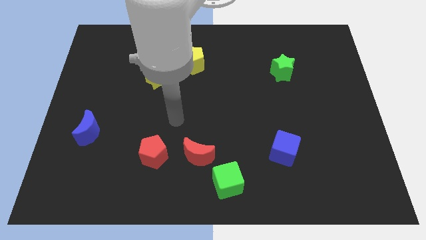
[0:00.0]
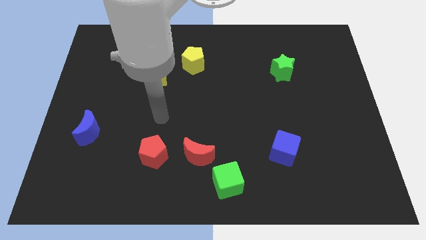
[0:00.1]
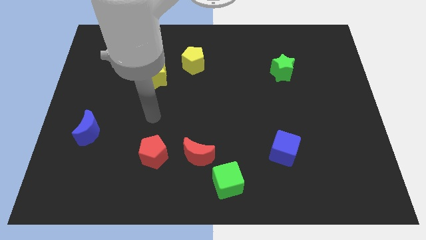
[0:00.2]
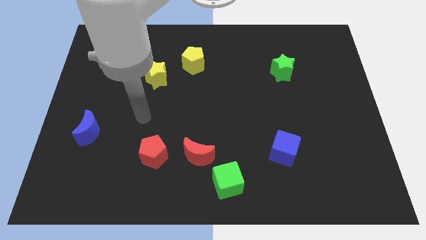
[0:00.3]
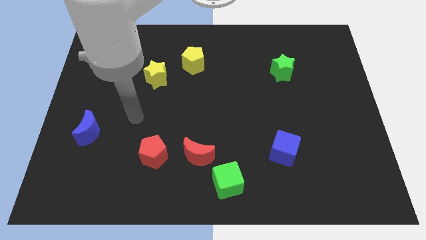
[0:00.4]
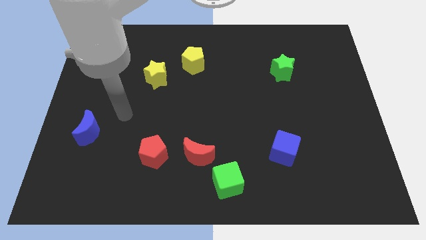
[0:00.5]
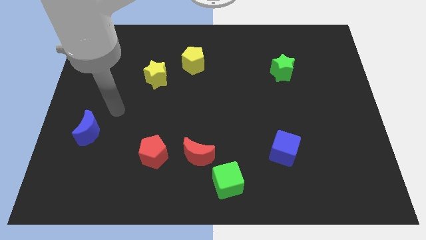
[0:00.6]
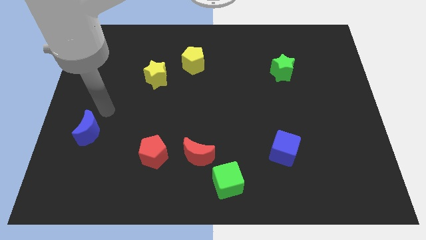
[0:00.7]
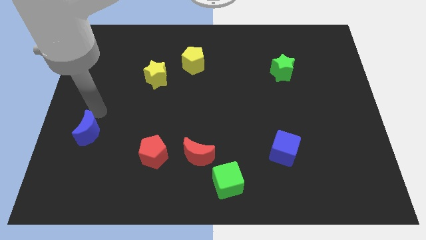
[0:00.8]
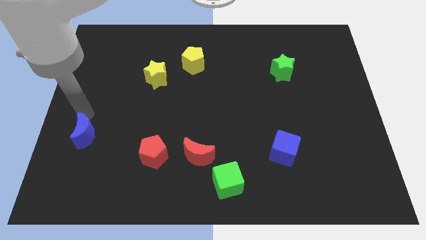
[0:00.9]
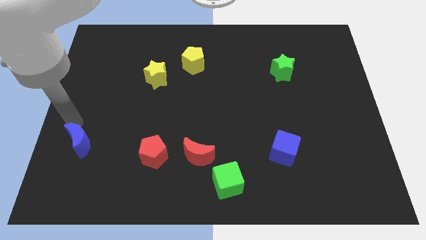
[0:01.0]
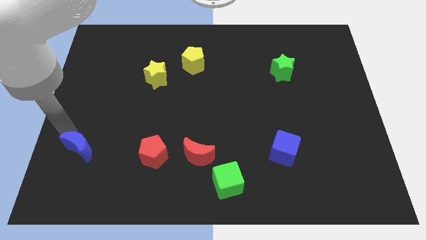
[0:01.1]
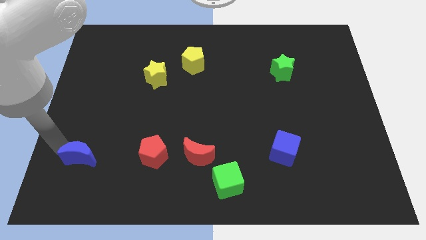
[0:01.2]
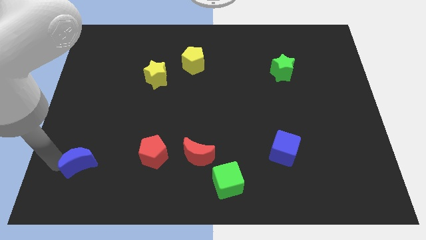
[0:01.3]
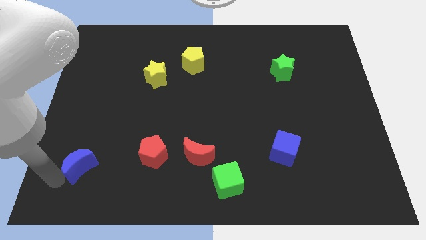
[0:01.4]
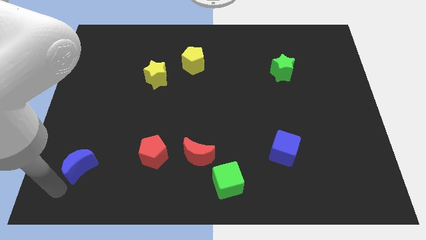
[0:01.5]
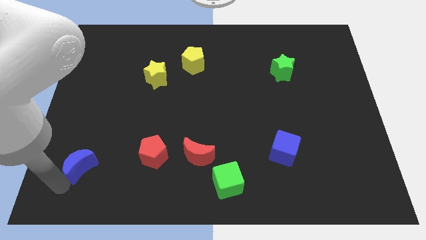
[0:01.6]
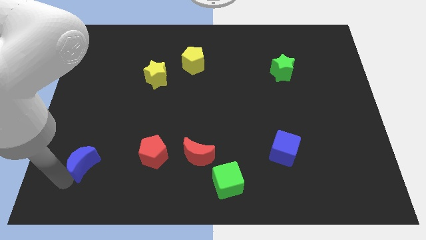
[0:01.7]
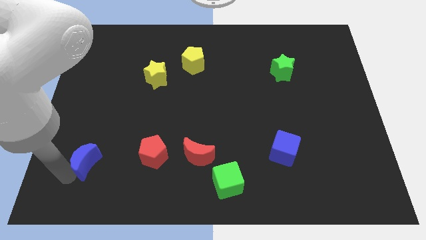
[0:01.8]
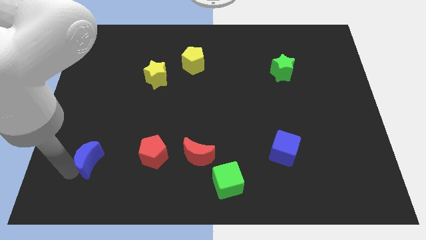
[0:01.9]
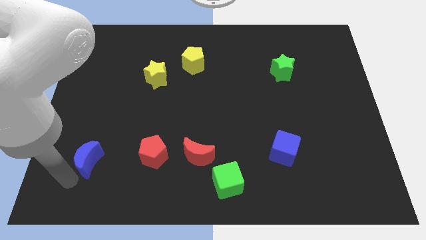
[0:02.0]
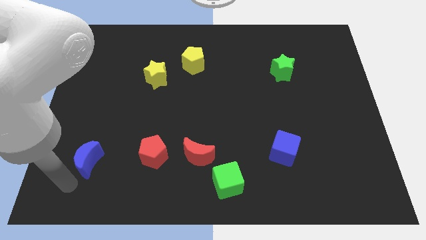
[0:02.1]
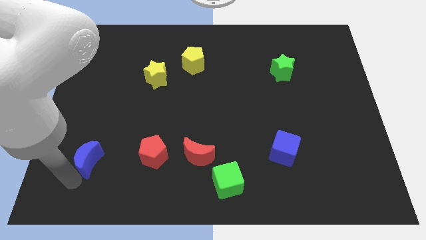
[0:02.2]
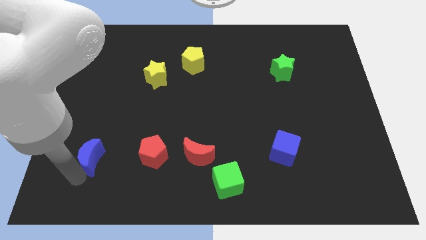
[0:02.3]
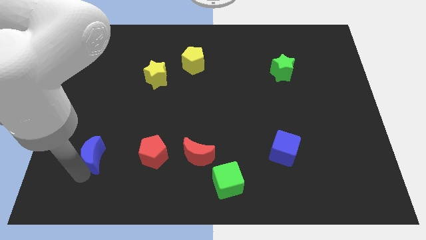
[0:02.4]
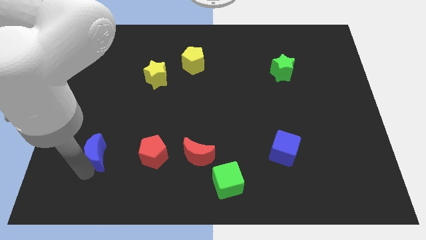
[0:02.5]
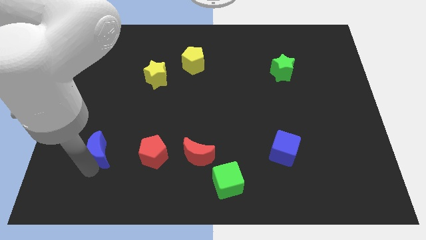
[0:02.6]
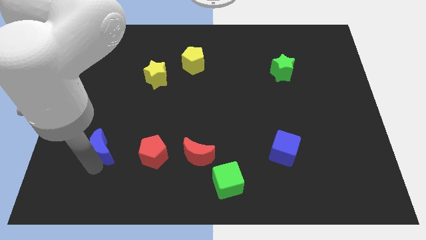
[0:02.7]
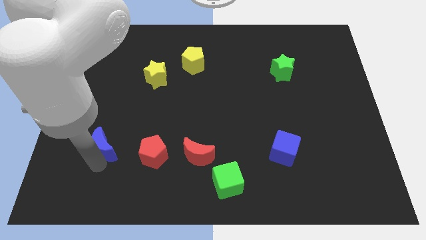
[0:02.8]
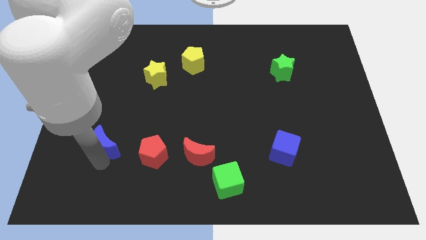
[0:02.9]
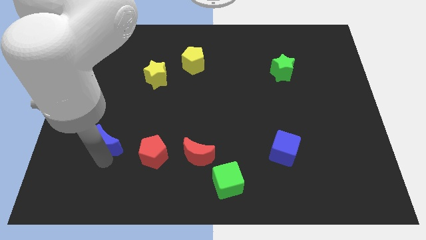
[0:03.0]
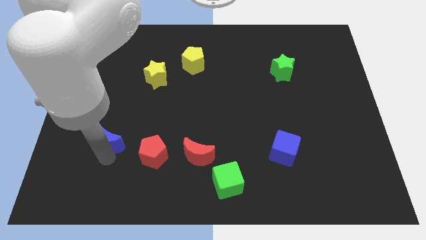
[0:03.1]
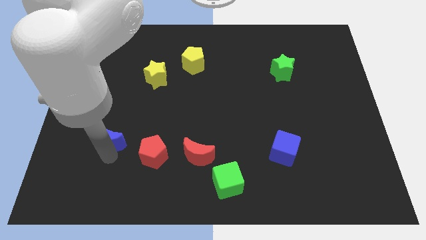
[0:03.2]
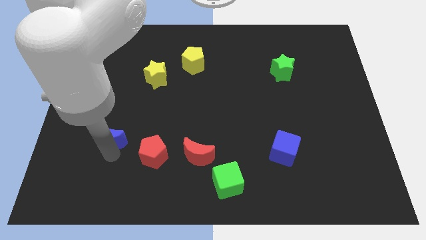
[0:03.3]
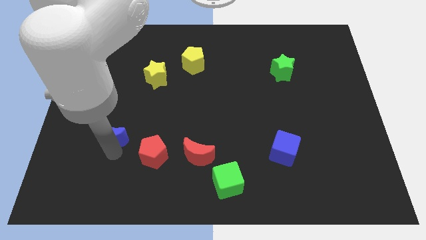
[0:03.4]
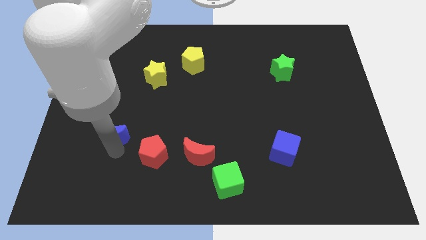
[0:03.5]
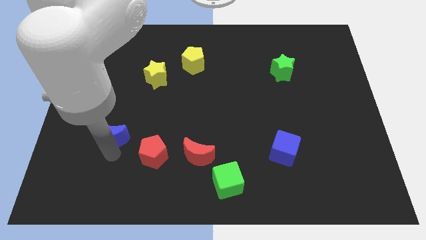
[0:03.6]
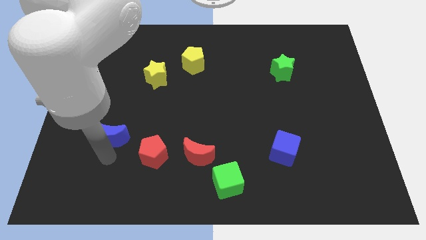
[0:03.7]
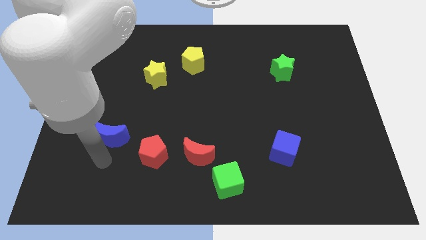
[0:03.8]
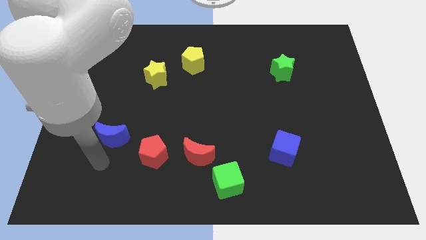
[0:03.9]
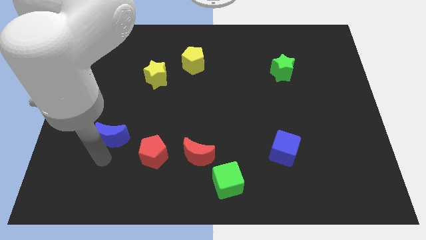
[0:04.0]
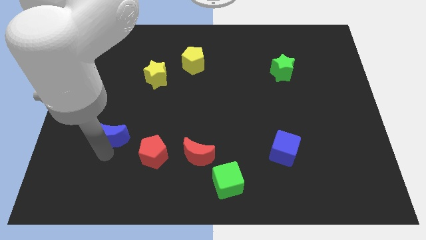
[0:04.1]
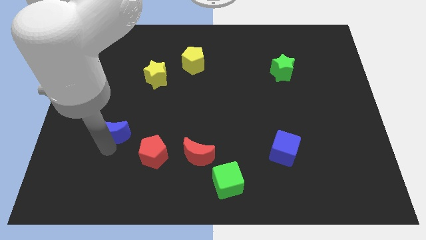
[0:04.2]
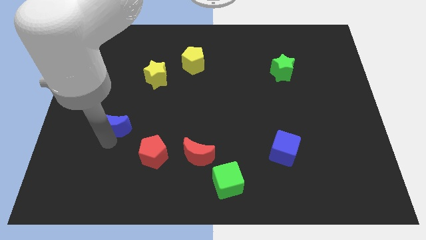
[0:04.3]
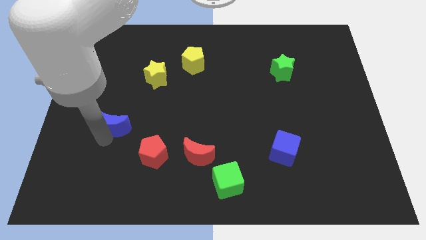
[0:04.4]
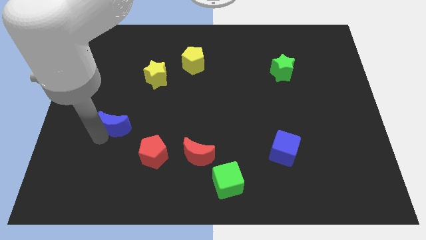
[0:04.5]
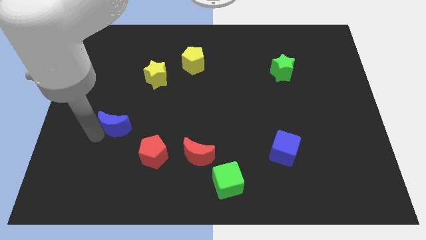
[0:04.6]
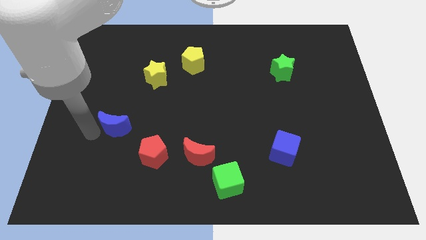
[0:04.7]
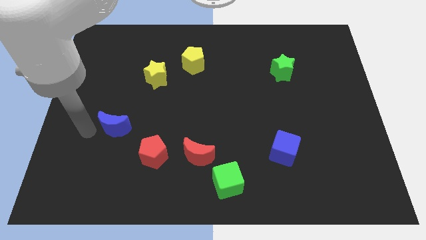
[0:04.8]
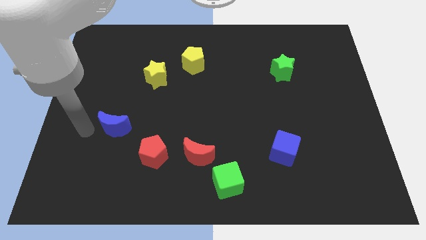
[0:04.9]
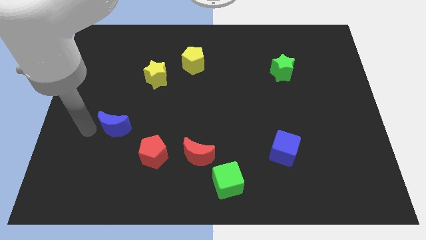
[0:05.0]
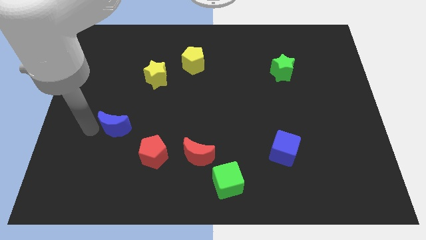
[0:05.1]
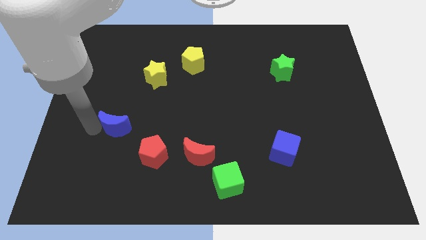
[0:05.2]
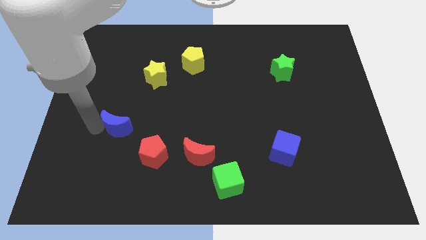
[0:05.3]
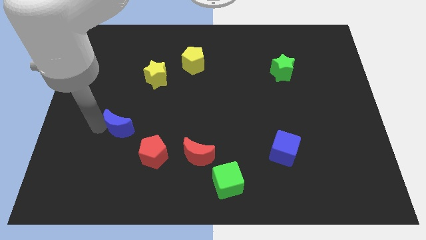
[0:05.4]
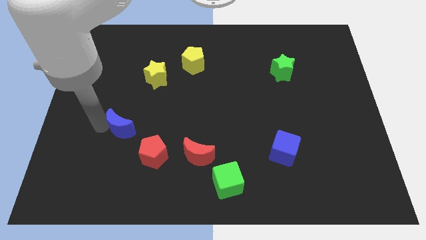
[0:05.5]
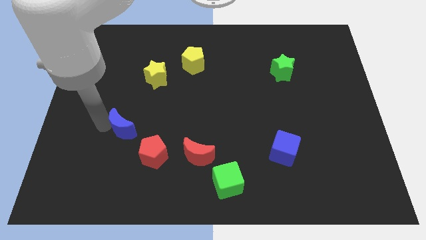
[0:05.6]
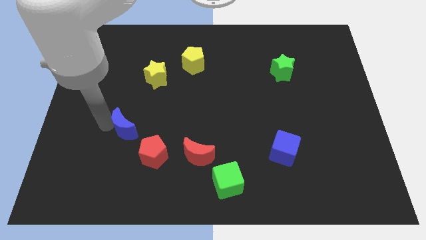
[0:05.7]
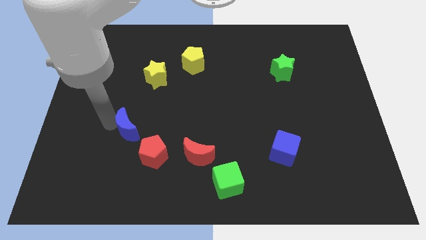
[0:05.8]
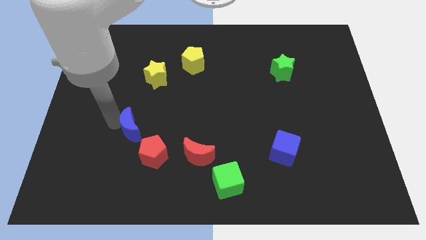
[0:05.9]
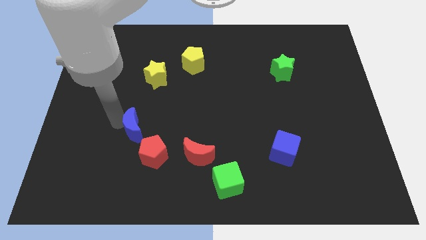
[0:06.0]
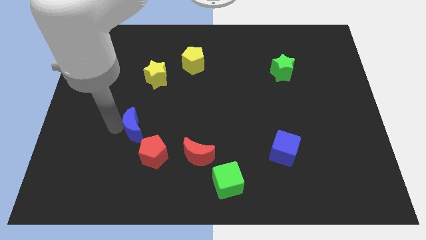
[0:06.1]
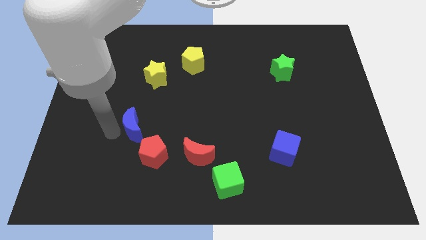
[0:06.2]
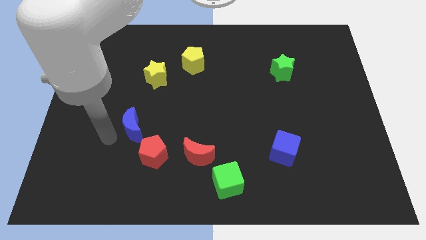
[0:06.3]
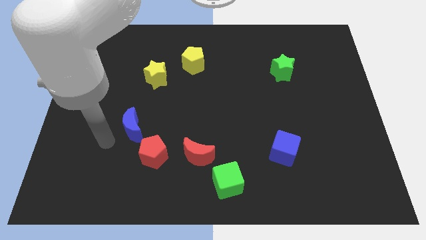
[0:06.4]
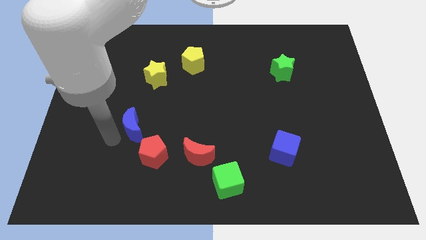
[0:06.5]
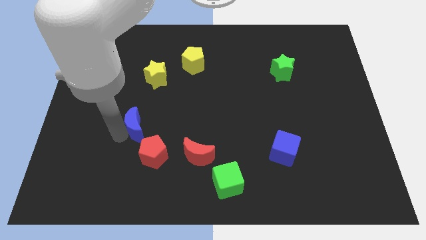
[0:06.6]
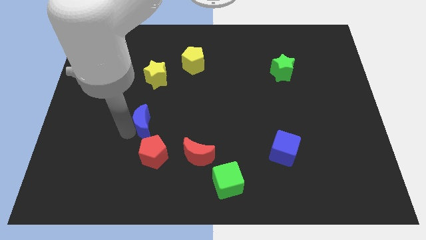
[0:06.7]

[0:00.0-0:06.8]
move the blue moon to the top side of the red pentagon
